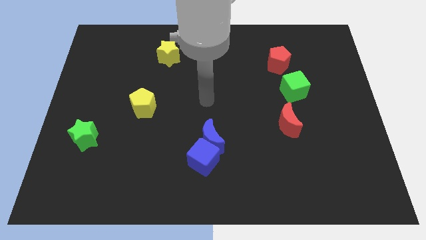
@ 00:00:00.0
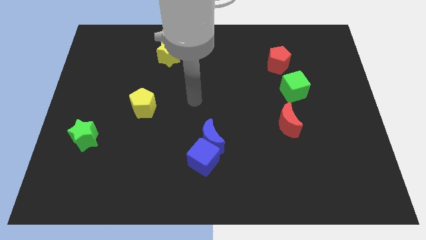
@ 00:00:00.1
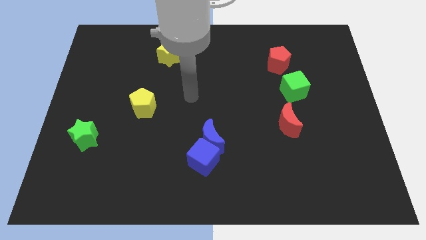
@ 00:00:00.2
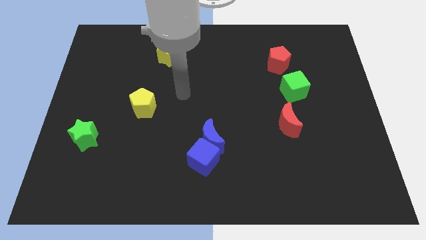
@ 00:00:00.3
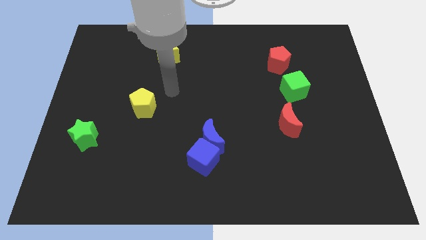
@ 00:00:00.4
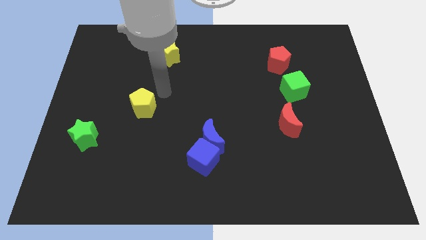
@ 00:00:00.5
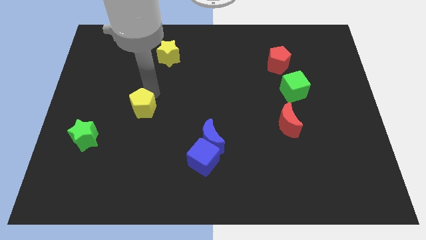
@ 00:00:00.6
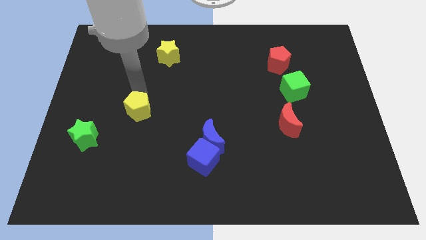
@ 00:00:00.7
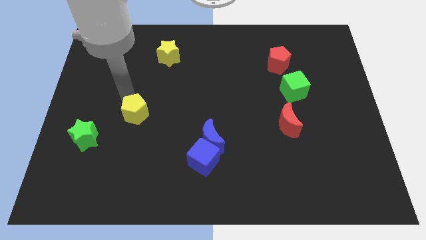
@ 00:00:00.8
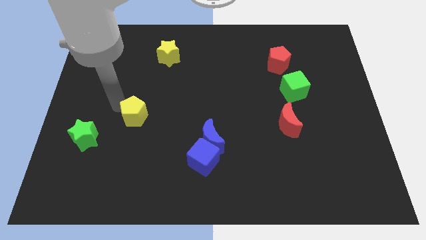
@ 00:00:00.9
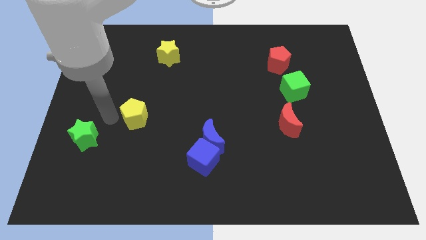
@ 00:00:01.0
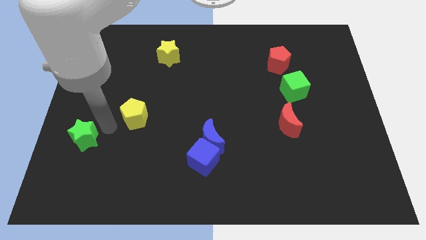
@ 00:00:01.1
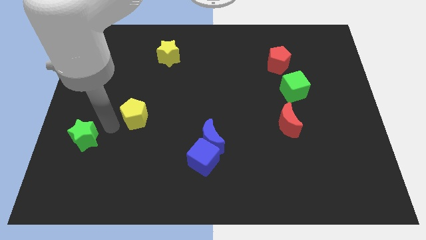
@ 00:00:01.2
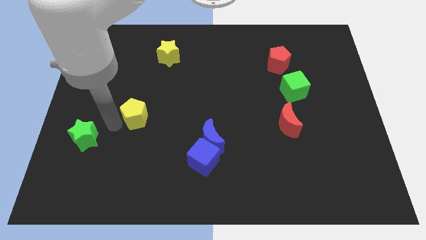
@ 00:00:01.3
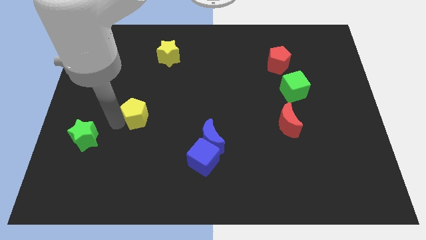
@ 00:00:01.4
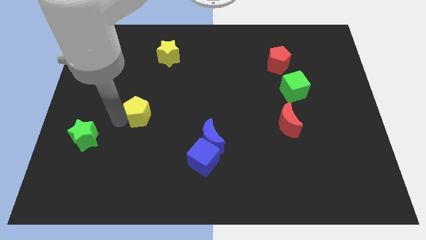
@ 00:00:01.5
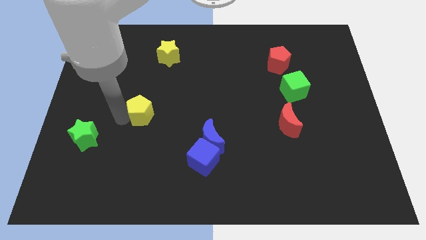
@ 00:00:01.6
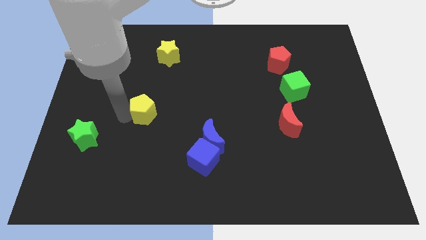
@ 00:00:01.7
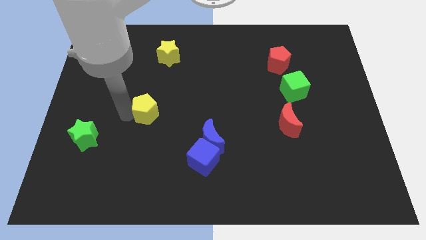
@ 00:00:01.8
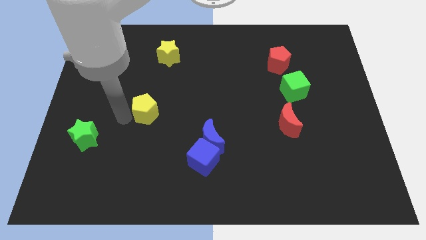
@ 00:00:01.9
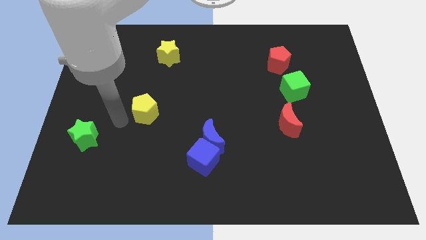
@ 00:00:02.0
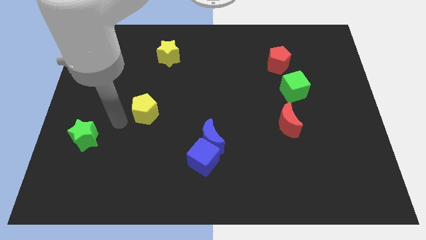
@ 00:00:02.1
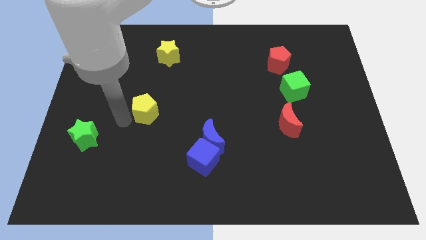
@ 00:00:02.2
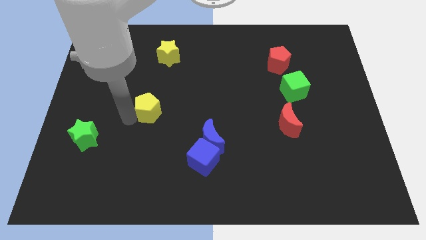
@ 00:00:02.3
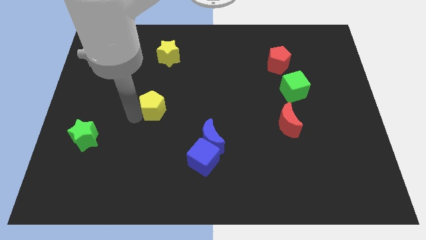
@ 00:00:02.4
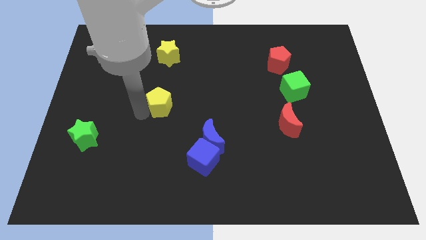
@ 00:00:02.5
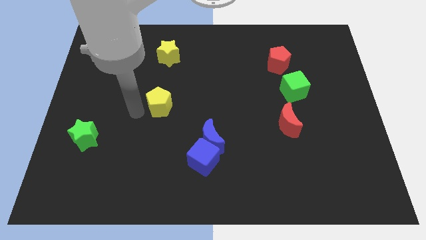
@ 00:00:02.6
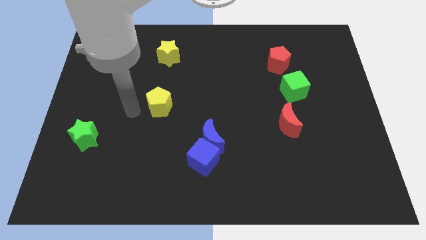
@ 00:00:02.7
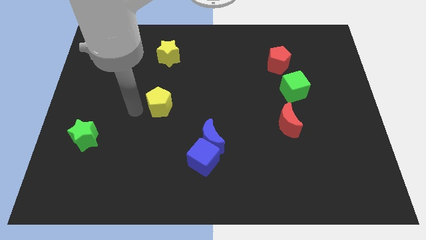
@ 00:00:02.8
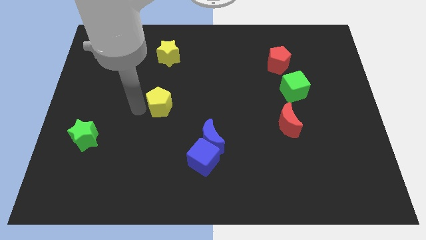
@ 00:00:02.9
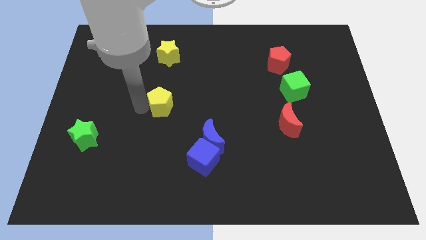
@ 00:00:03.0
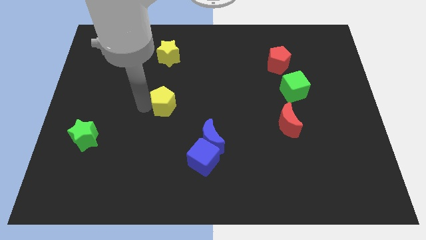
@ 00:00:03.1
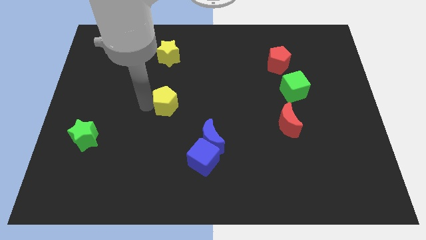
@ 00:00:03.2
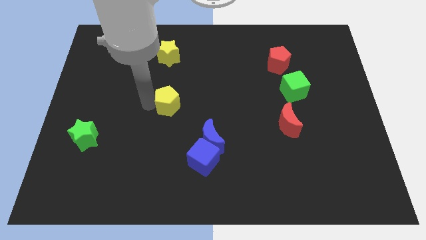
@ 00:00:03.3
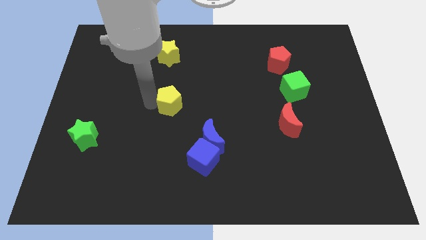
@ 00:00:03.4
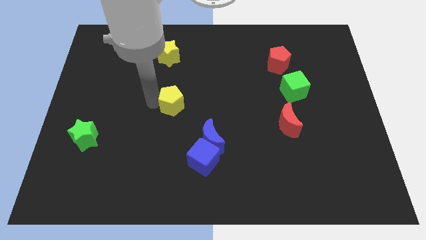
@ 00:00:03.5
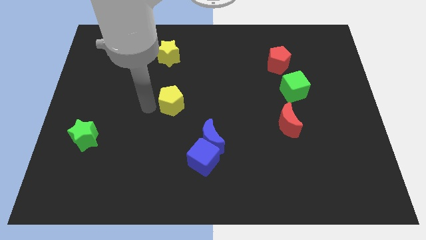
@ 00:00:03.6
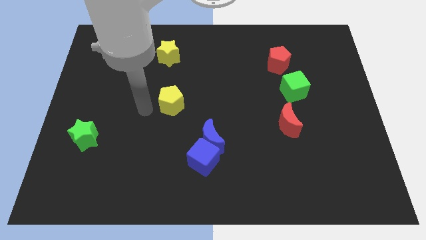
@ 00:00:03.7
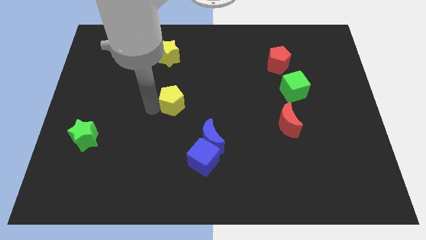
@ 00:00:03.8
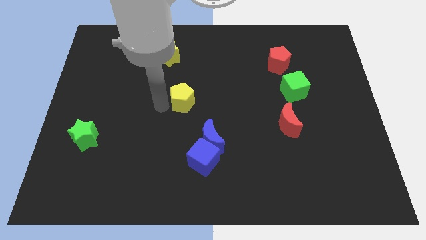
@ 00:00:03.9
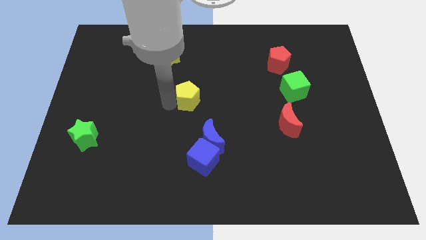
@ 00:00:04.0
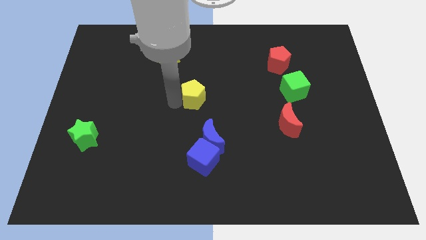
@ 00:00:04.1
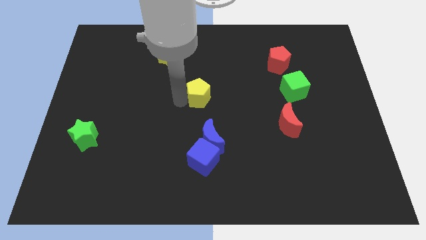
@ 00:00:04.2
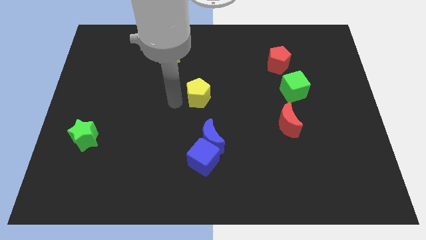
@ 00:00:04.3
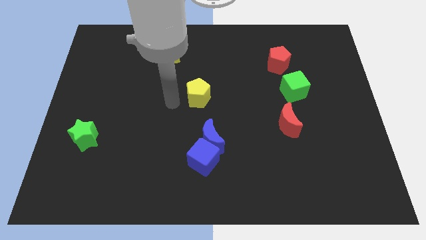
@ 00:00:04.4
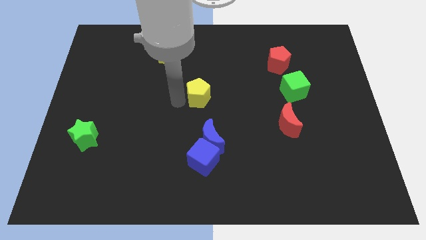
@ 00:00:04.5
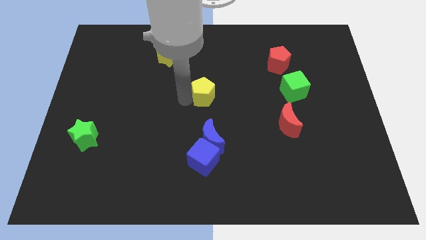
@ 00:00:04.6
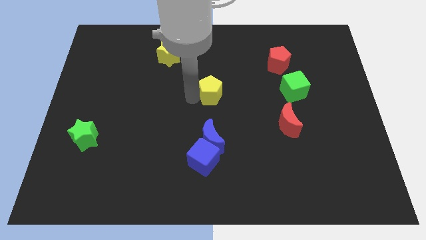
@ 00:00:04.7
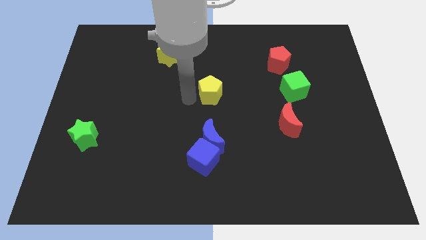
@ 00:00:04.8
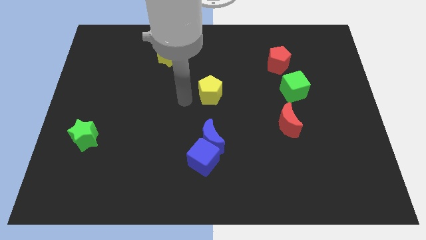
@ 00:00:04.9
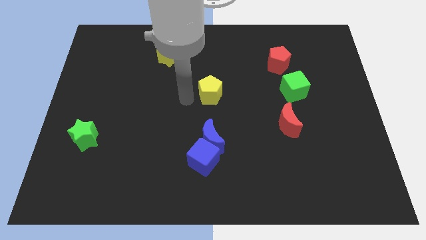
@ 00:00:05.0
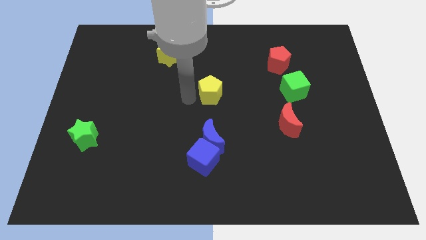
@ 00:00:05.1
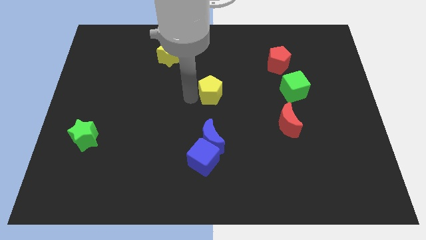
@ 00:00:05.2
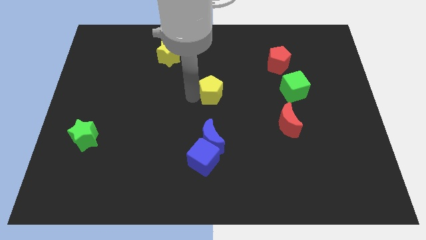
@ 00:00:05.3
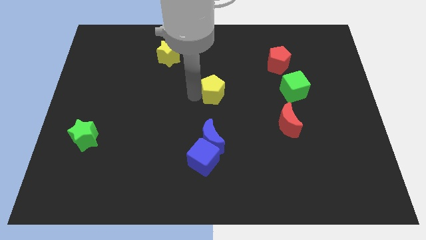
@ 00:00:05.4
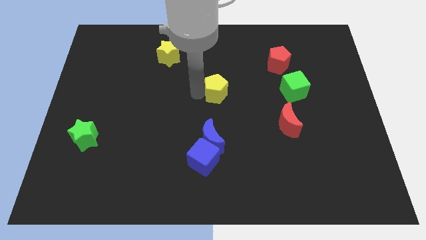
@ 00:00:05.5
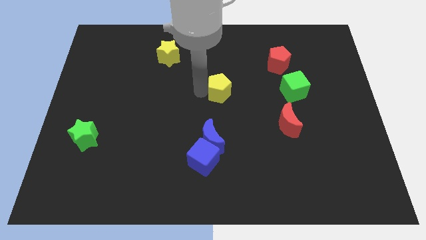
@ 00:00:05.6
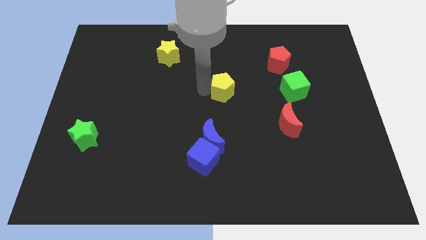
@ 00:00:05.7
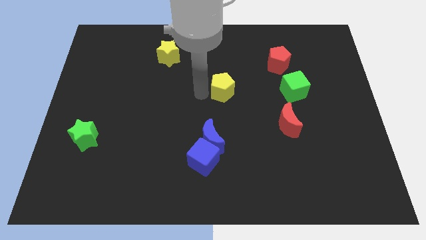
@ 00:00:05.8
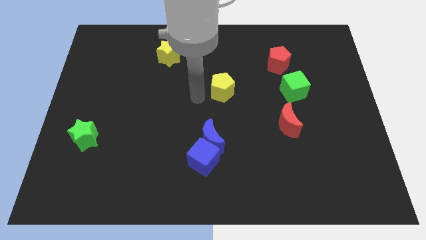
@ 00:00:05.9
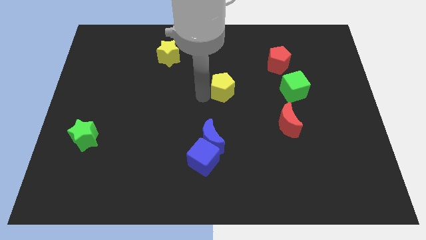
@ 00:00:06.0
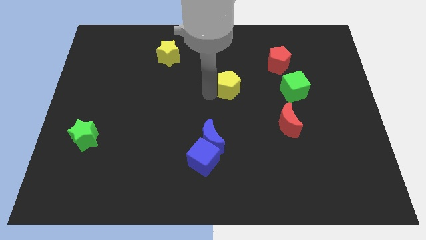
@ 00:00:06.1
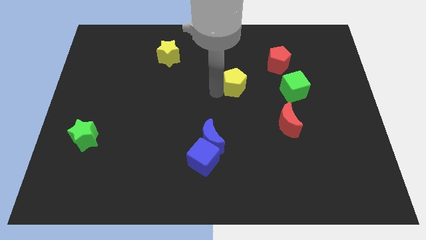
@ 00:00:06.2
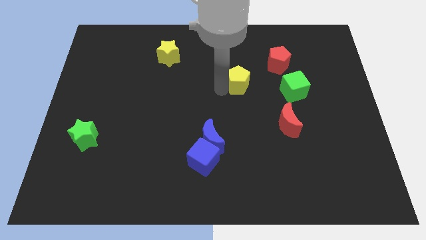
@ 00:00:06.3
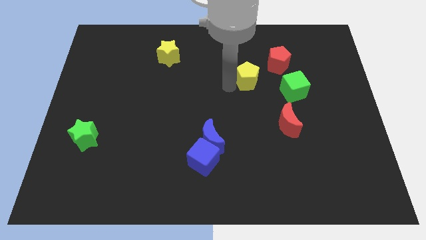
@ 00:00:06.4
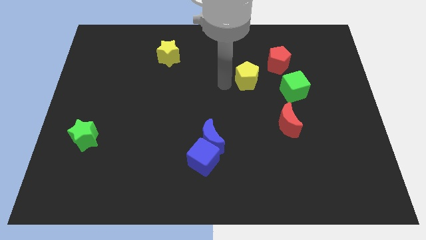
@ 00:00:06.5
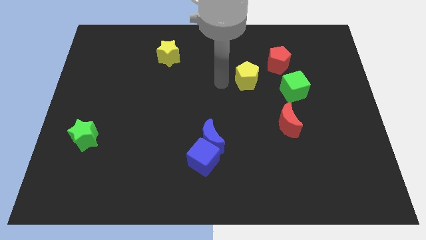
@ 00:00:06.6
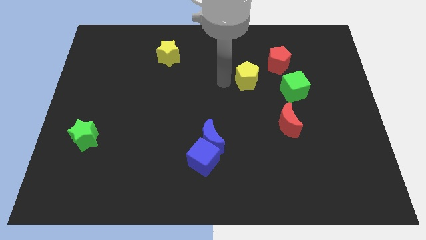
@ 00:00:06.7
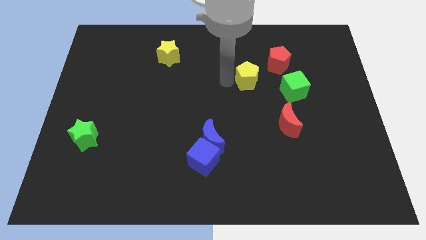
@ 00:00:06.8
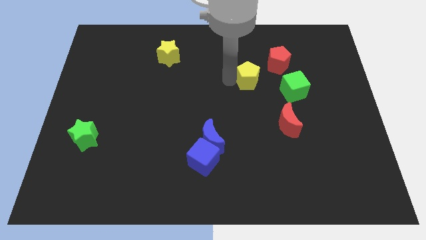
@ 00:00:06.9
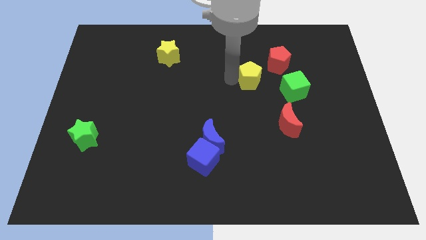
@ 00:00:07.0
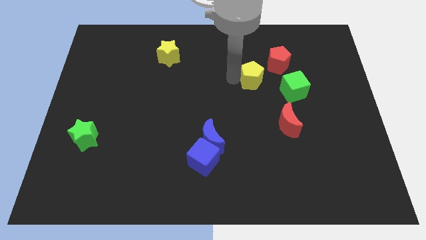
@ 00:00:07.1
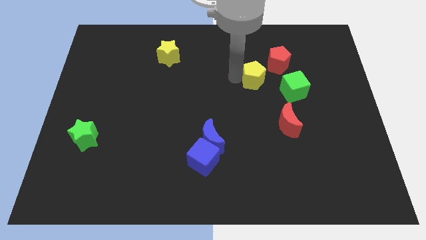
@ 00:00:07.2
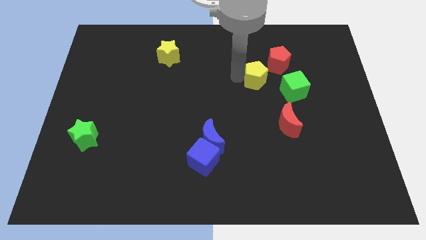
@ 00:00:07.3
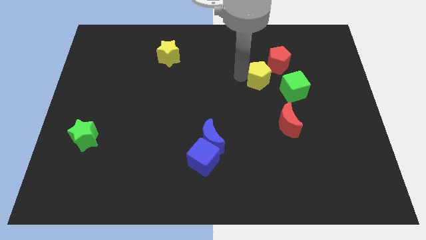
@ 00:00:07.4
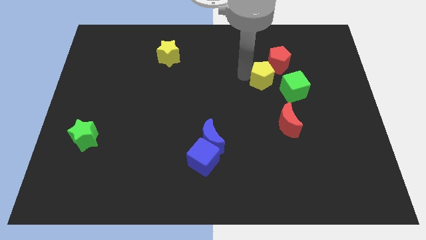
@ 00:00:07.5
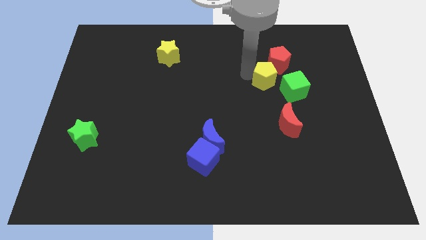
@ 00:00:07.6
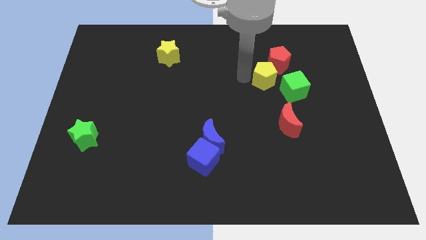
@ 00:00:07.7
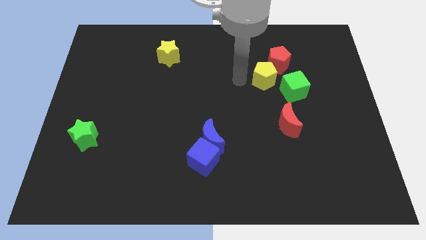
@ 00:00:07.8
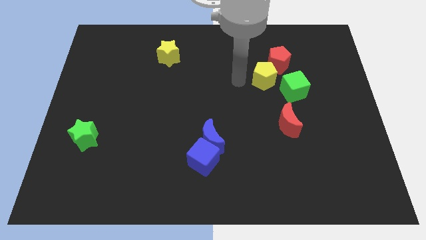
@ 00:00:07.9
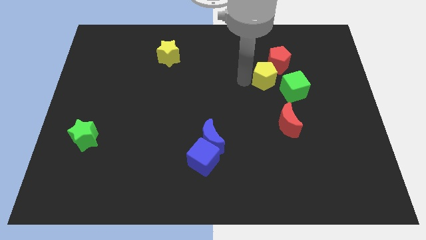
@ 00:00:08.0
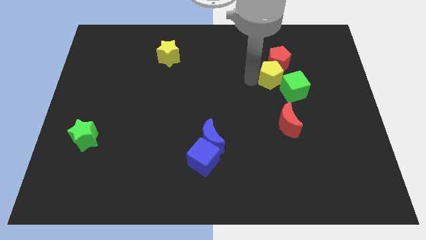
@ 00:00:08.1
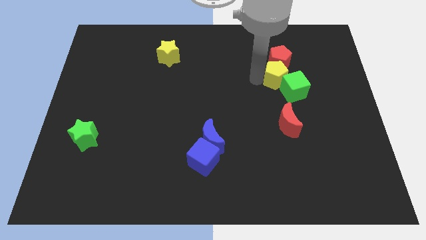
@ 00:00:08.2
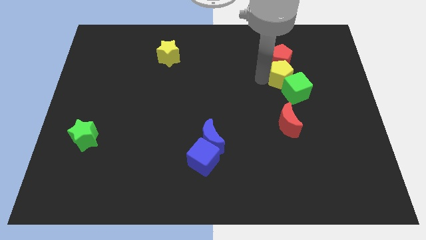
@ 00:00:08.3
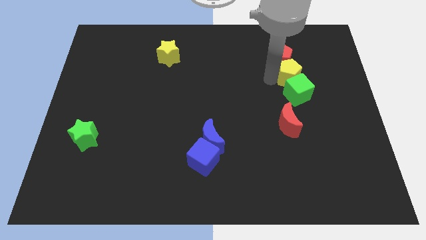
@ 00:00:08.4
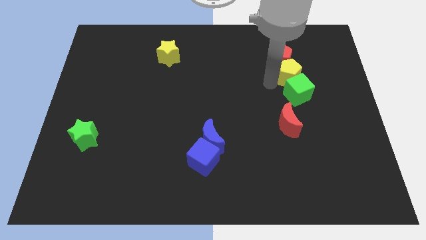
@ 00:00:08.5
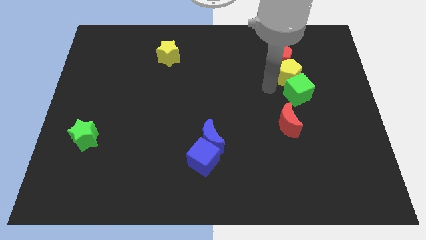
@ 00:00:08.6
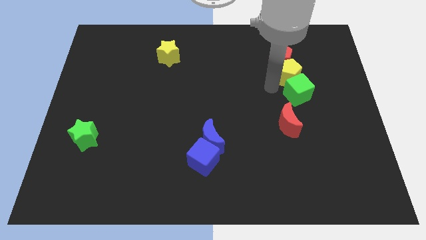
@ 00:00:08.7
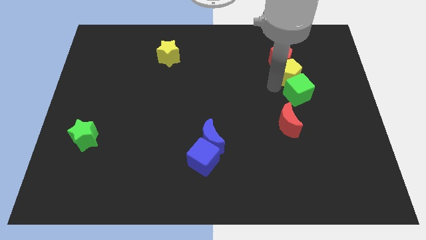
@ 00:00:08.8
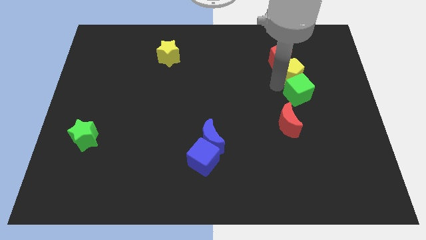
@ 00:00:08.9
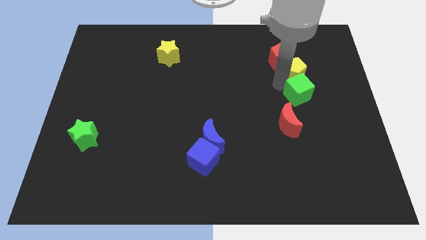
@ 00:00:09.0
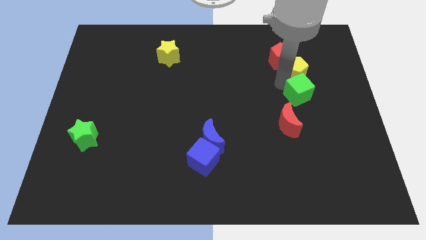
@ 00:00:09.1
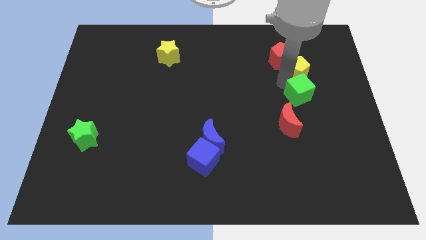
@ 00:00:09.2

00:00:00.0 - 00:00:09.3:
put the yellow pentagon to the right side of the red pentagon
